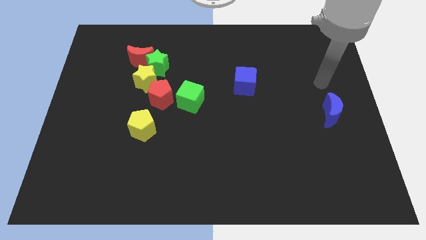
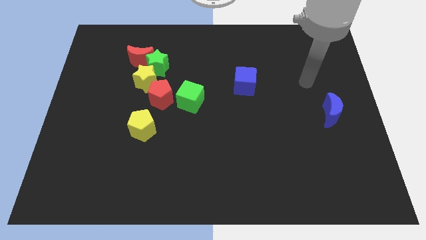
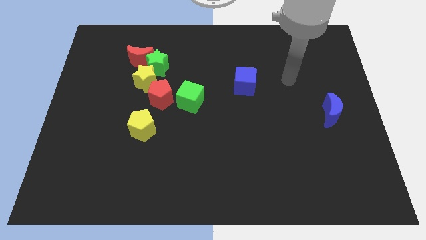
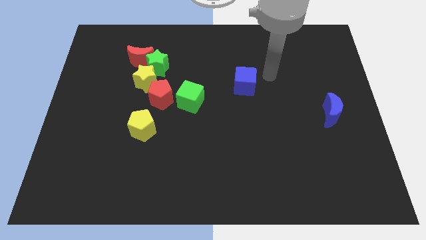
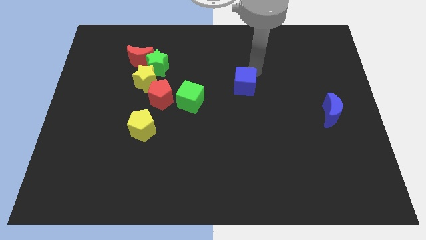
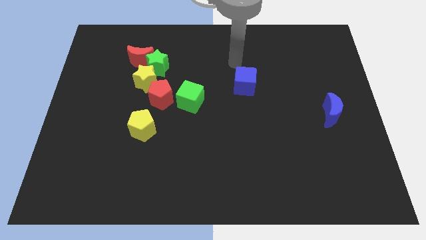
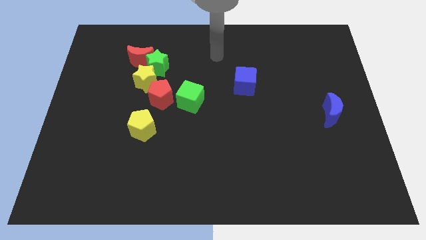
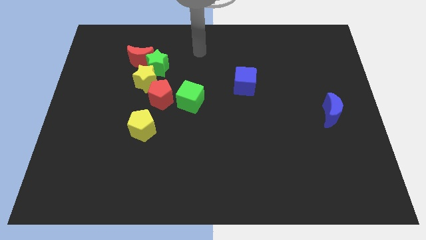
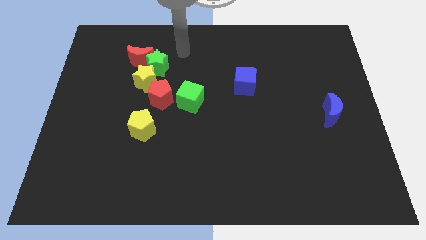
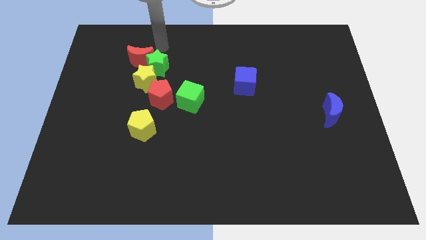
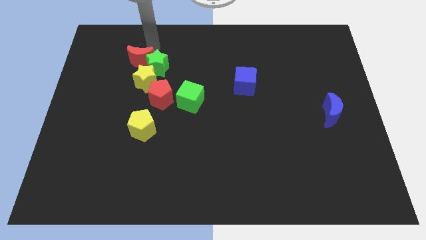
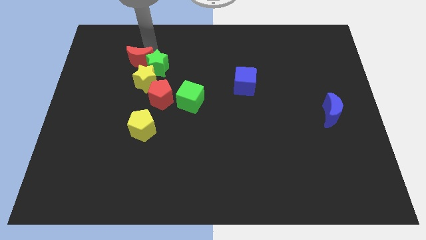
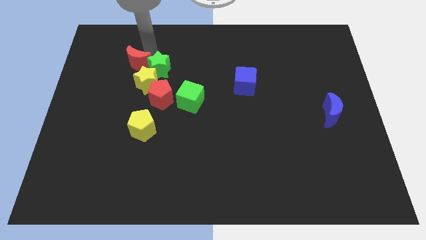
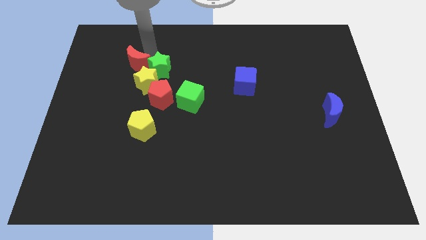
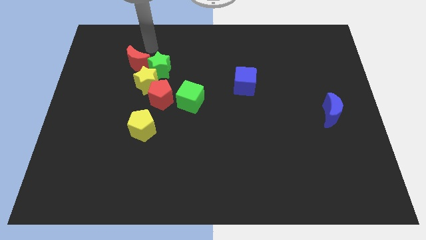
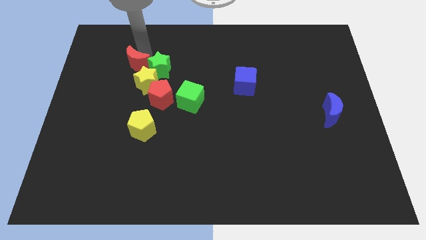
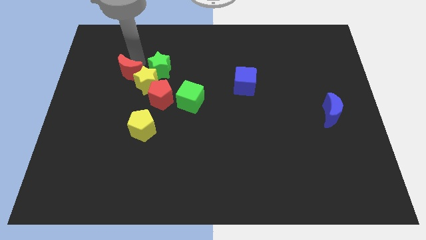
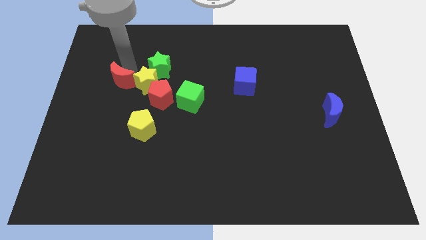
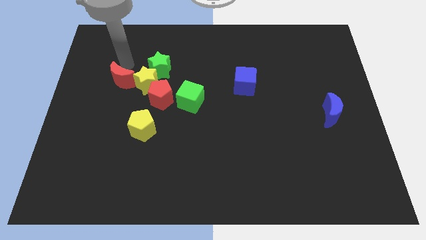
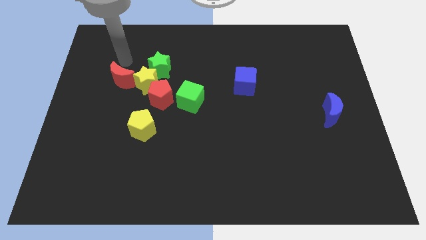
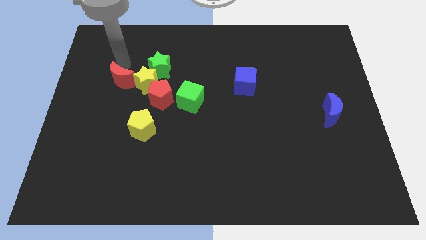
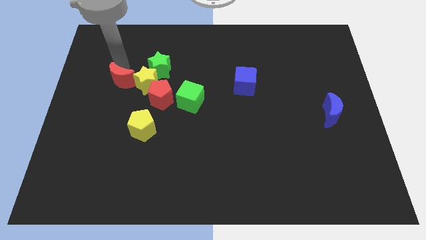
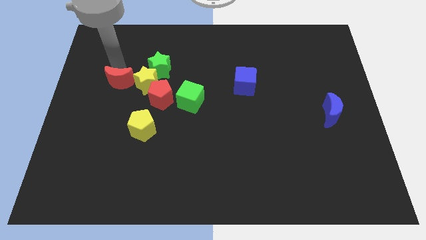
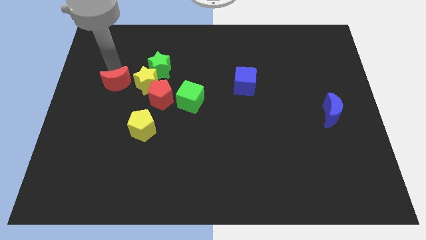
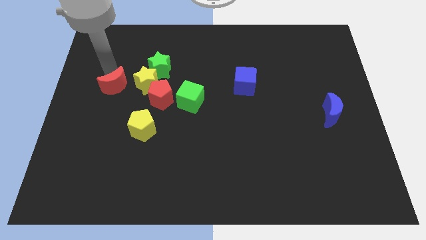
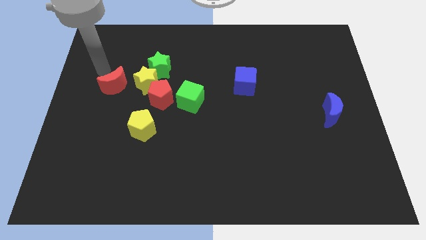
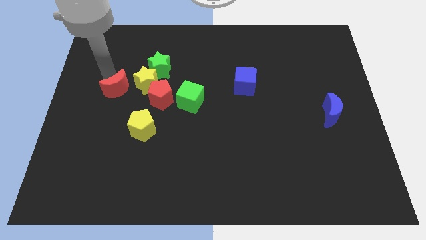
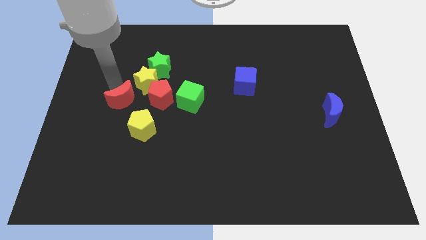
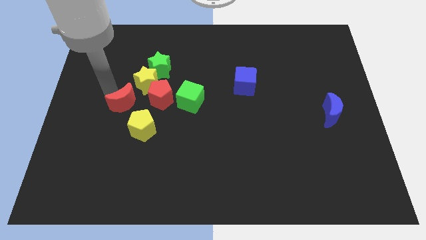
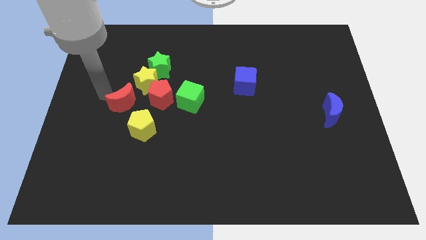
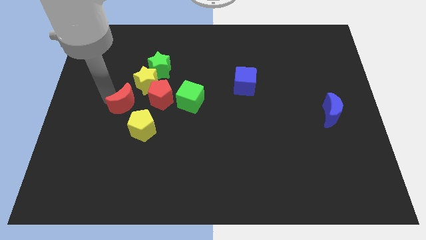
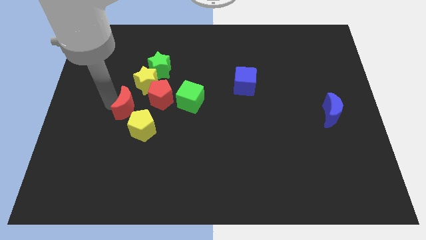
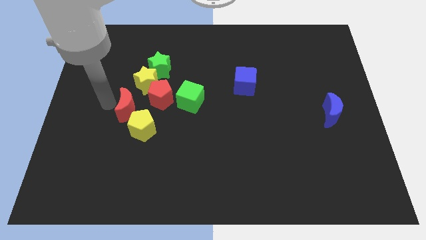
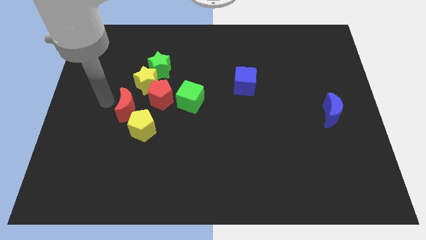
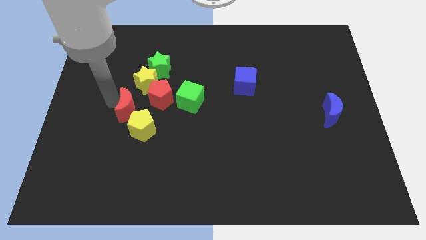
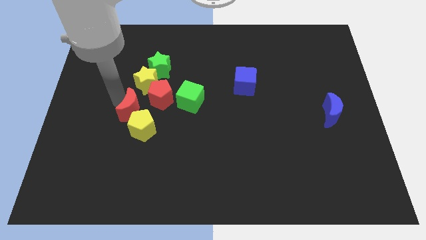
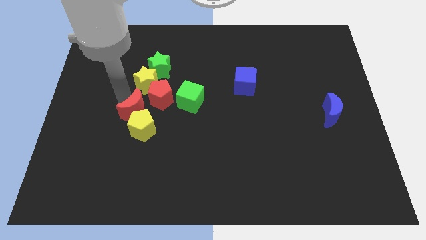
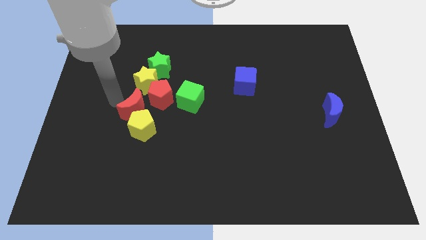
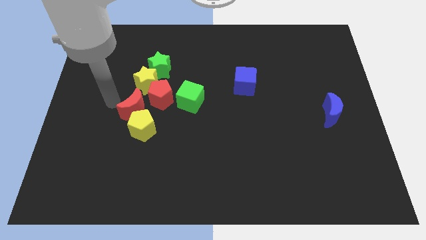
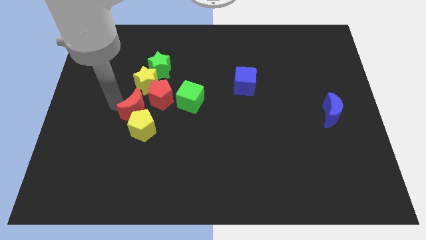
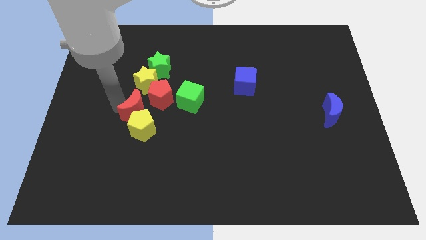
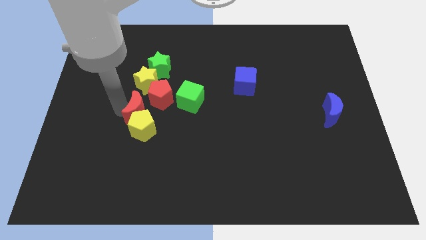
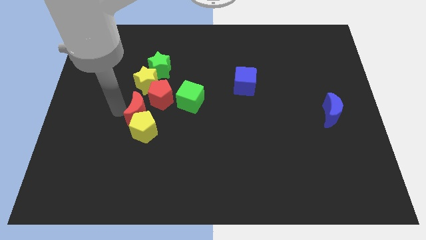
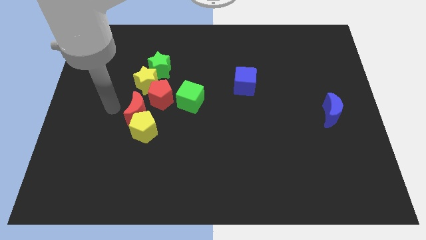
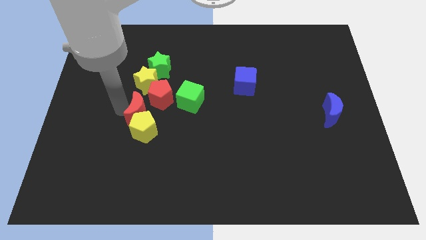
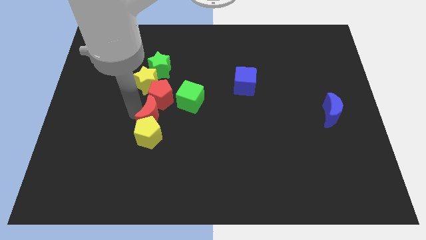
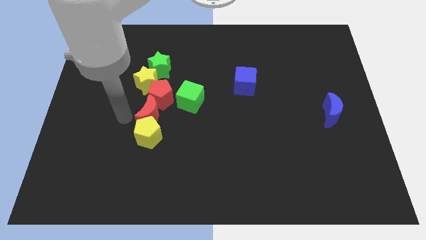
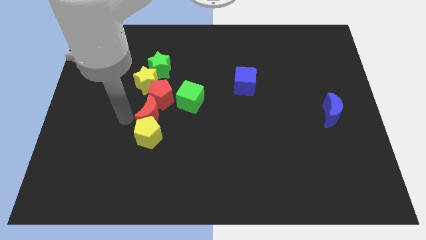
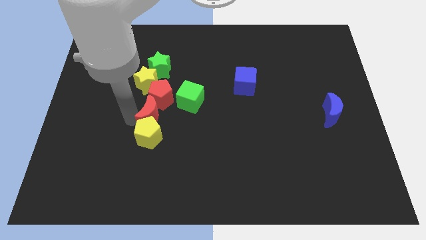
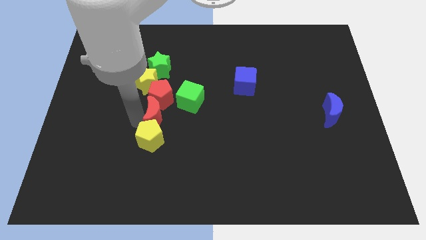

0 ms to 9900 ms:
push the red moon to the bottom right of the red pentagon

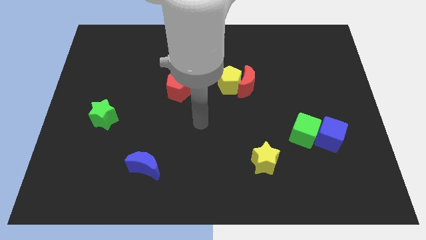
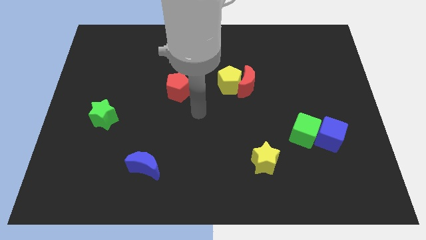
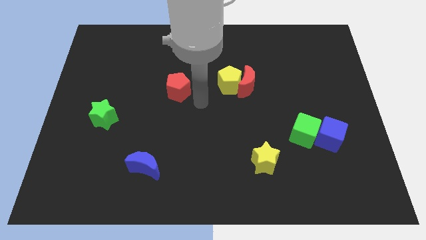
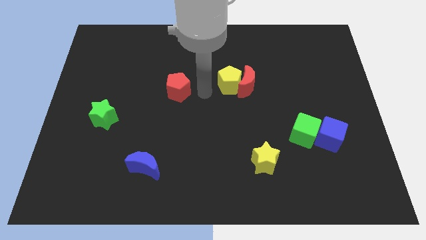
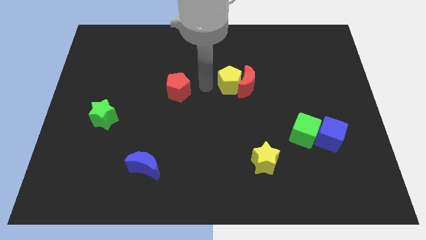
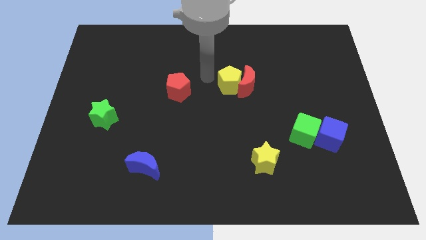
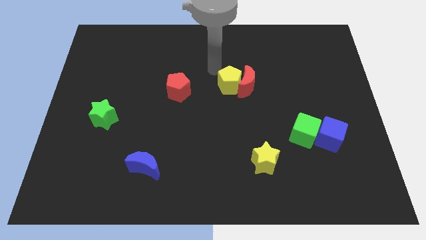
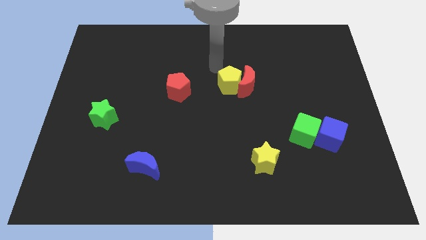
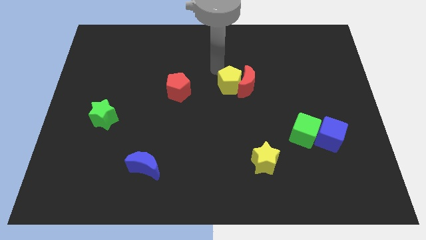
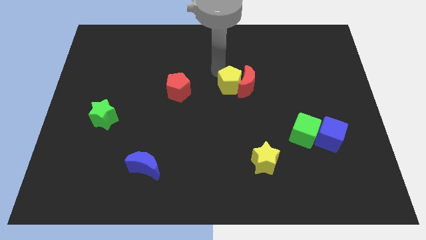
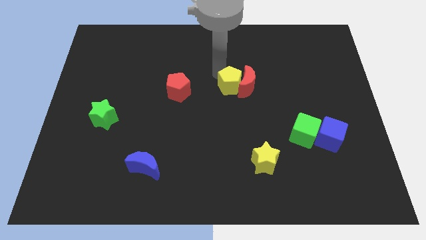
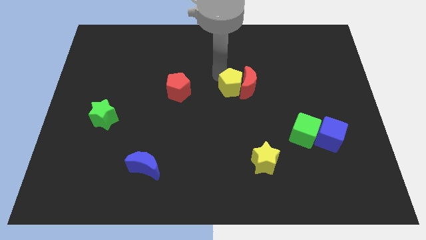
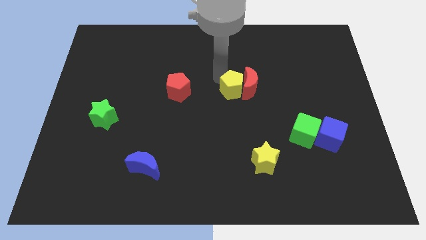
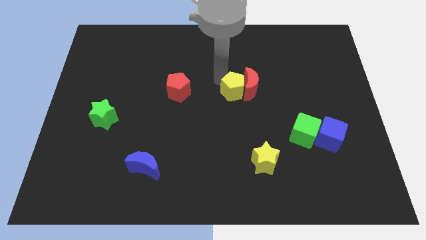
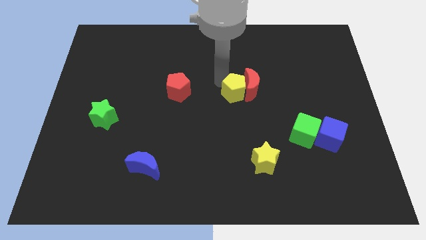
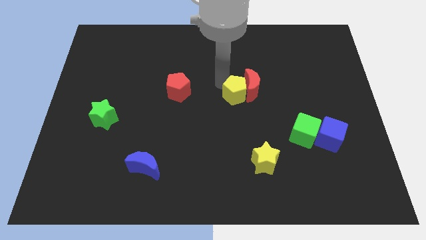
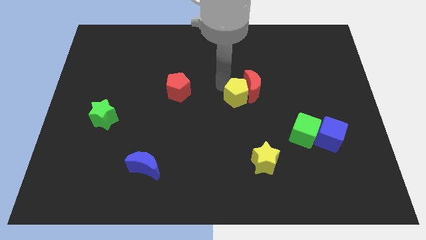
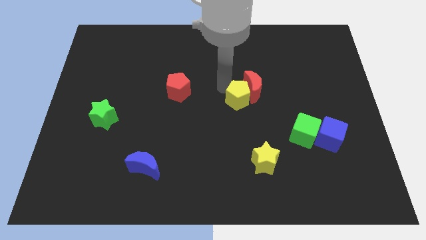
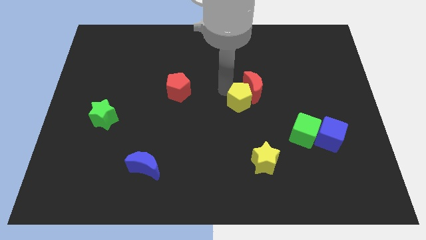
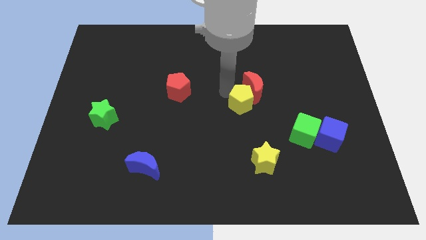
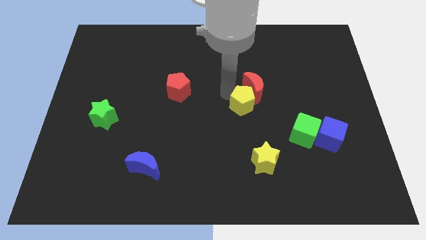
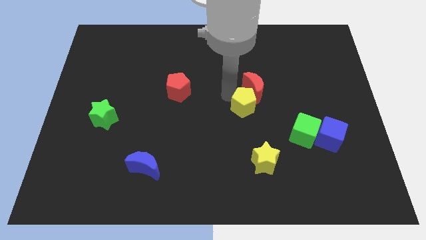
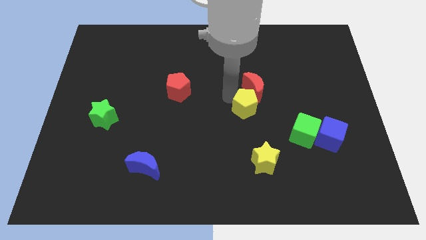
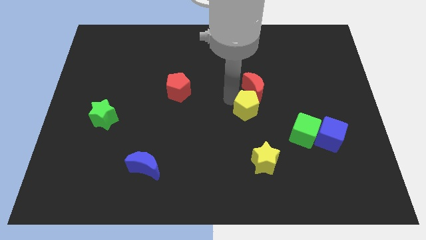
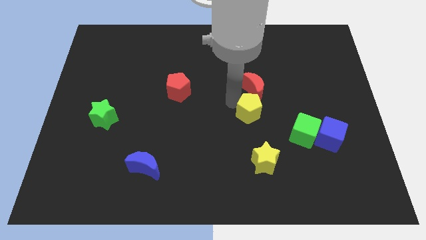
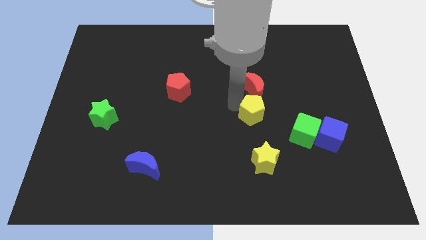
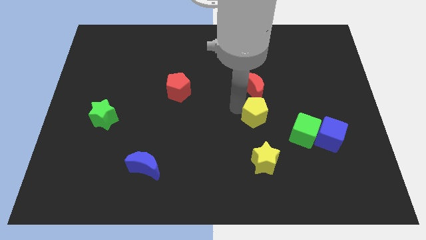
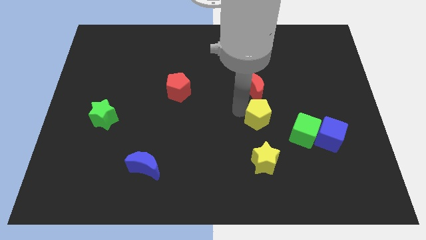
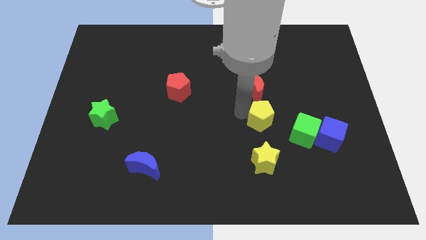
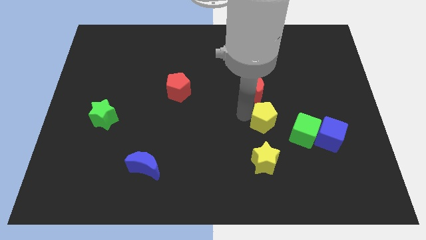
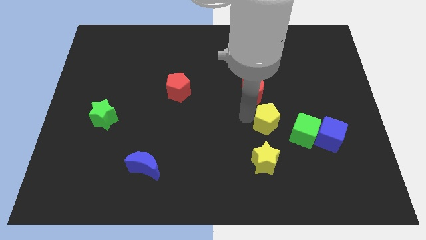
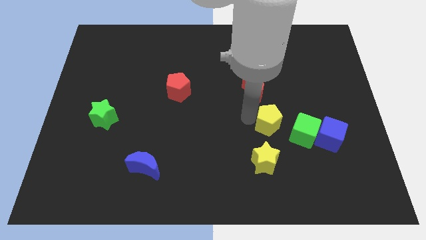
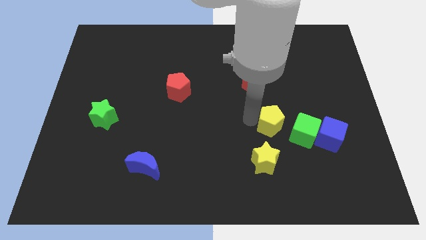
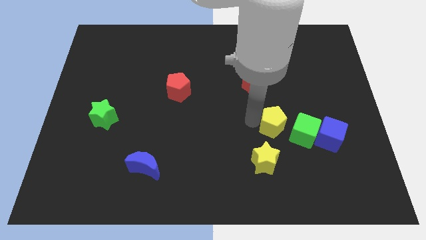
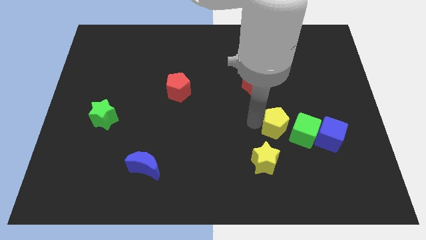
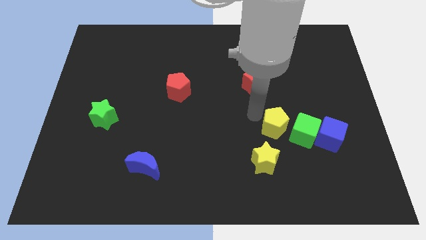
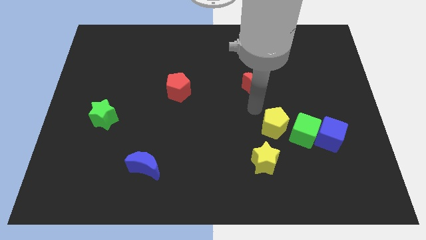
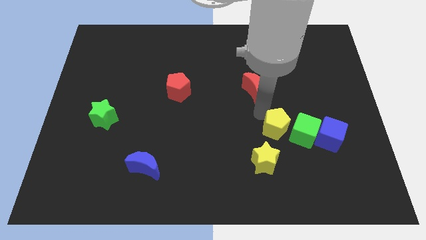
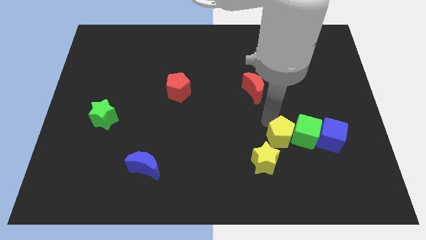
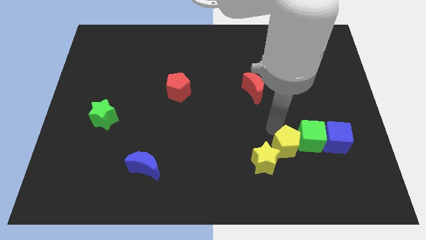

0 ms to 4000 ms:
push the yellow pentagon to the right side of the yellow star
